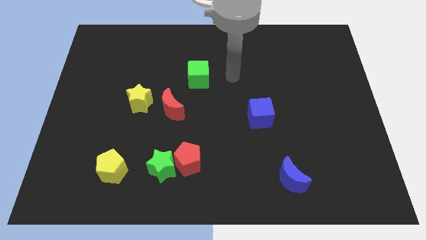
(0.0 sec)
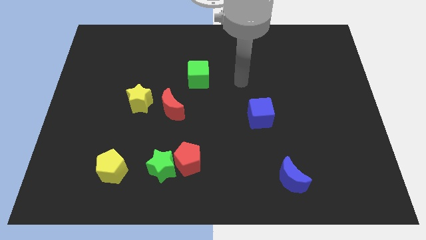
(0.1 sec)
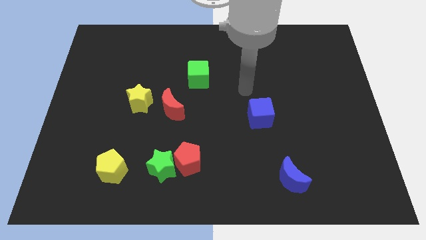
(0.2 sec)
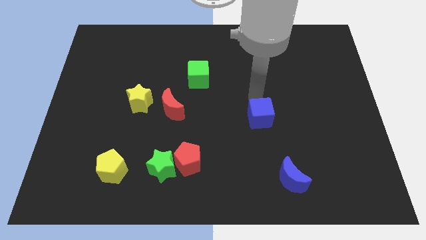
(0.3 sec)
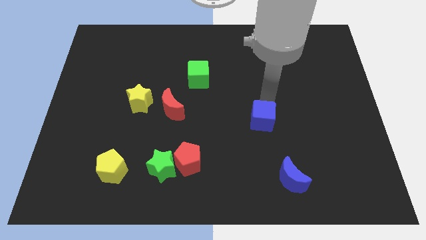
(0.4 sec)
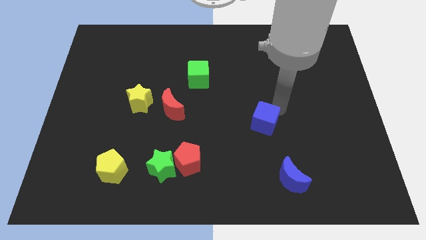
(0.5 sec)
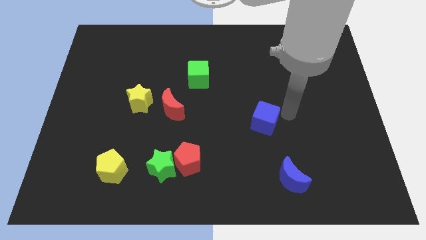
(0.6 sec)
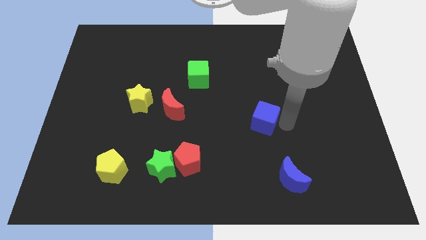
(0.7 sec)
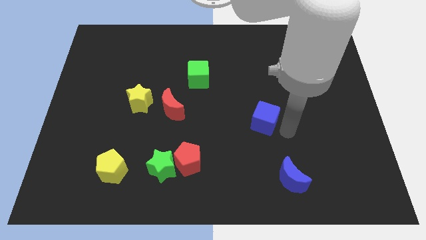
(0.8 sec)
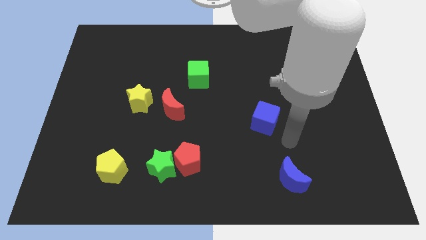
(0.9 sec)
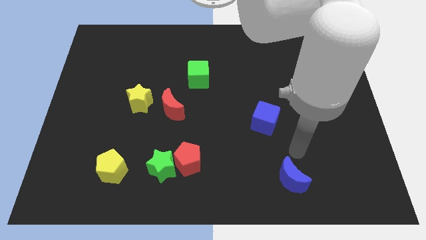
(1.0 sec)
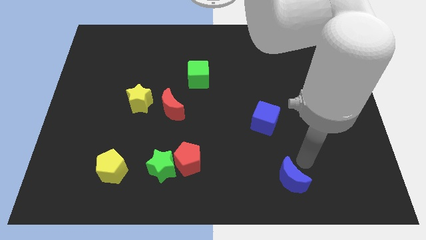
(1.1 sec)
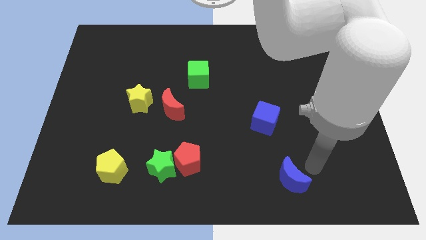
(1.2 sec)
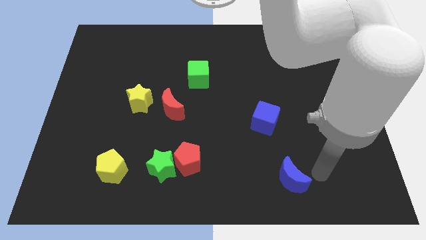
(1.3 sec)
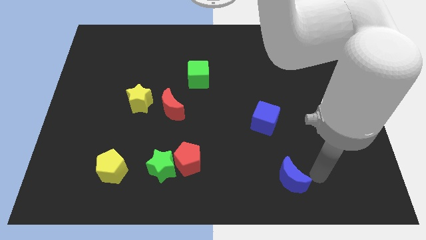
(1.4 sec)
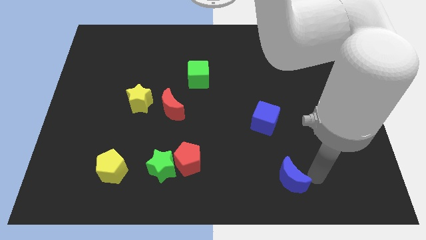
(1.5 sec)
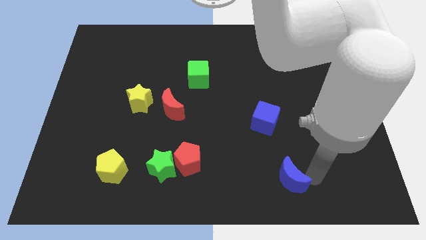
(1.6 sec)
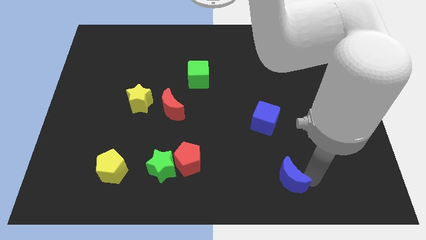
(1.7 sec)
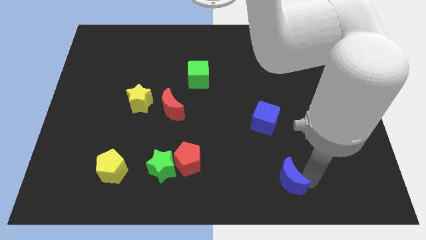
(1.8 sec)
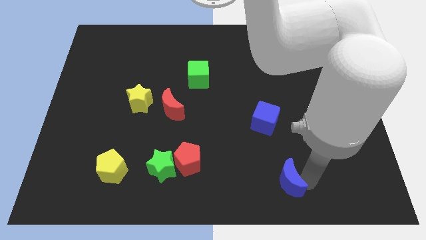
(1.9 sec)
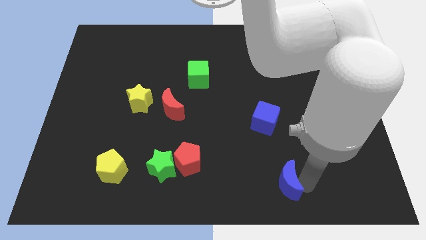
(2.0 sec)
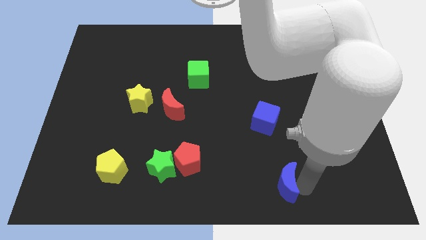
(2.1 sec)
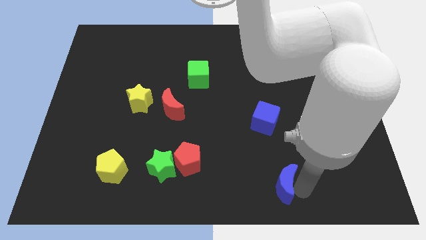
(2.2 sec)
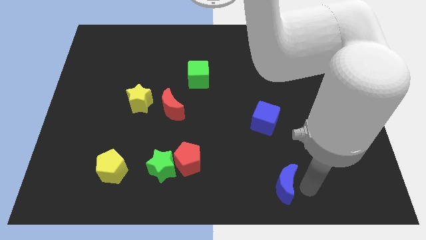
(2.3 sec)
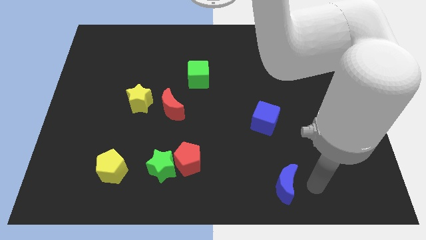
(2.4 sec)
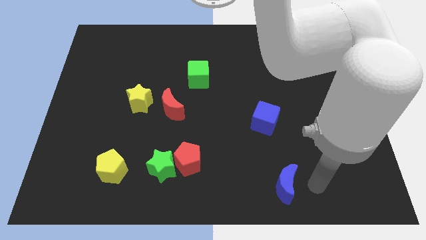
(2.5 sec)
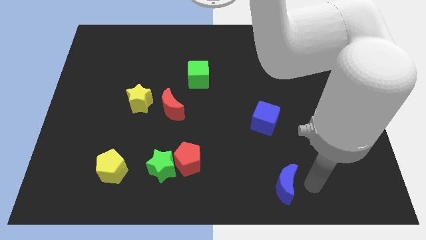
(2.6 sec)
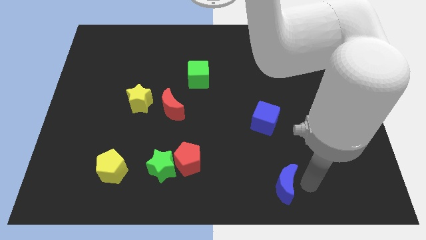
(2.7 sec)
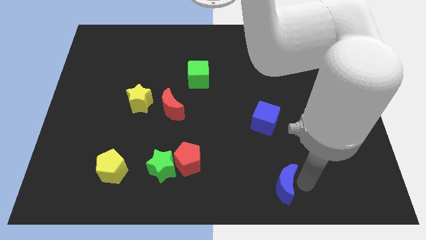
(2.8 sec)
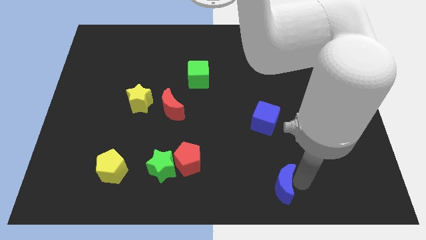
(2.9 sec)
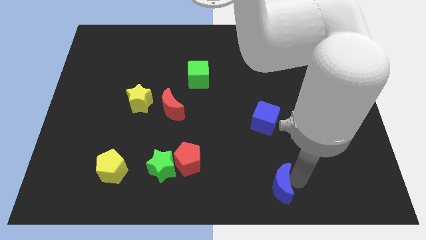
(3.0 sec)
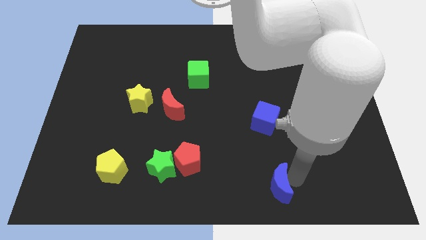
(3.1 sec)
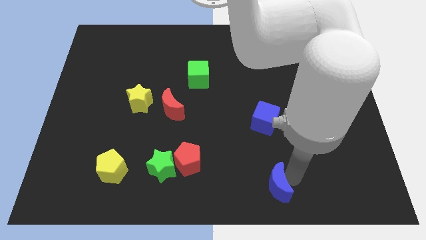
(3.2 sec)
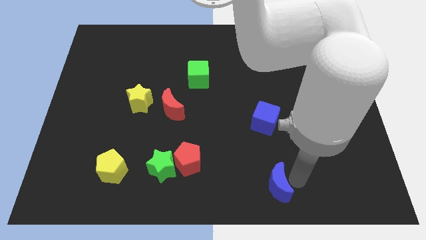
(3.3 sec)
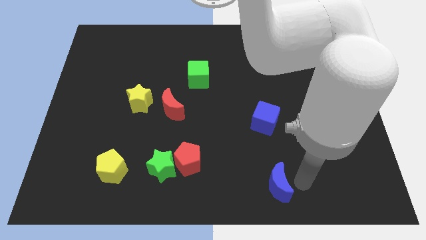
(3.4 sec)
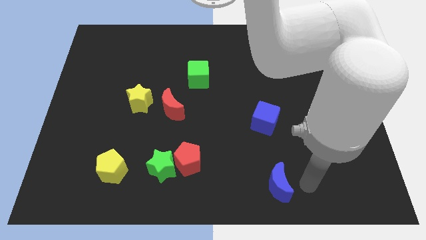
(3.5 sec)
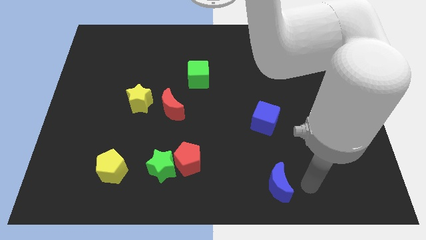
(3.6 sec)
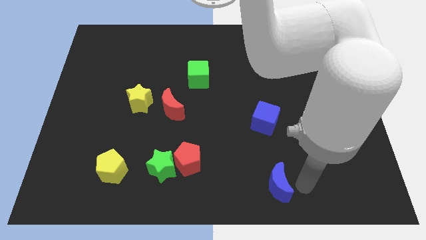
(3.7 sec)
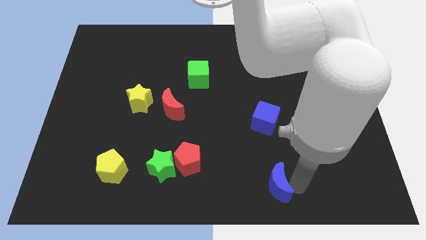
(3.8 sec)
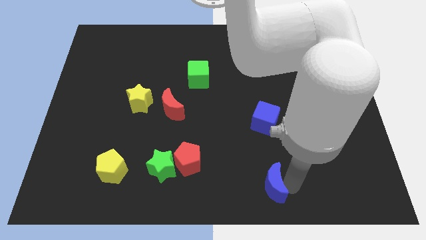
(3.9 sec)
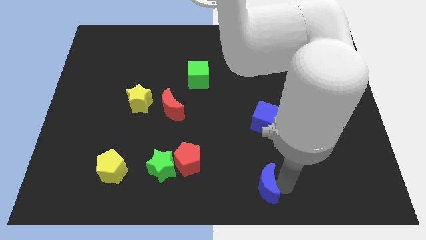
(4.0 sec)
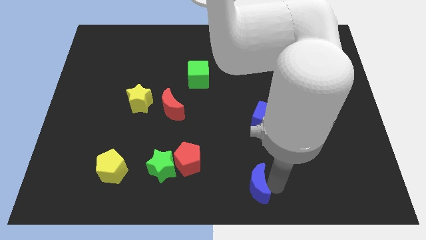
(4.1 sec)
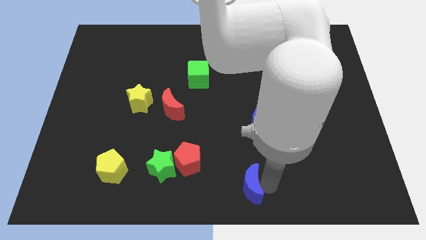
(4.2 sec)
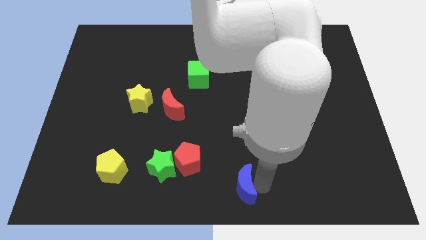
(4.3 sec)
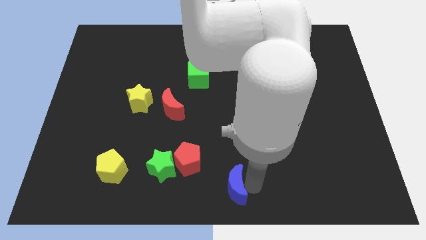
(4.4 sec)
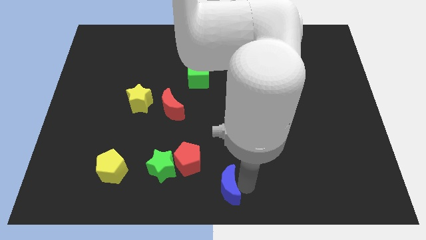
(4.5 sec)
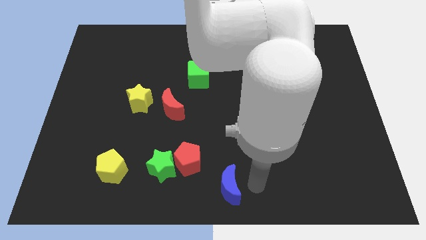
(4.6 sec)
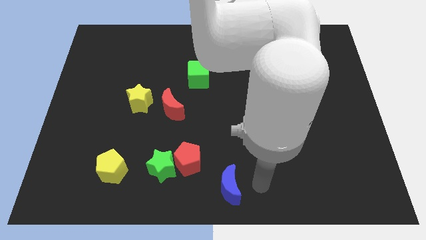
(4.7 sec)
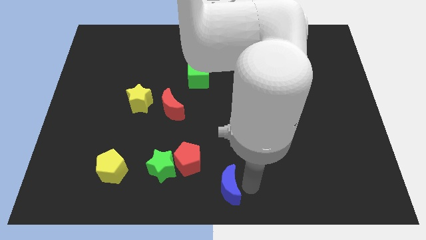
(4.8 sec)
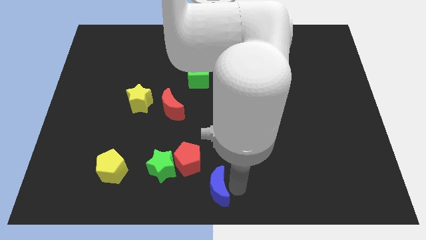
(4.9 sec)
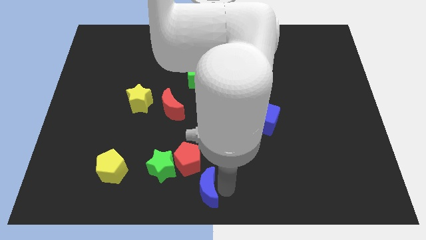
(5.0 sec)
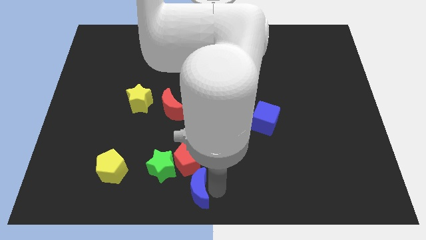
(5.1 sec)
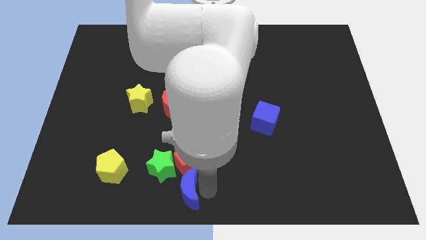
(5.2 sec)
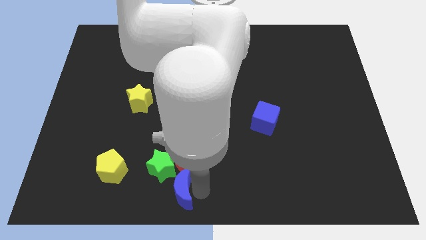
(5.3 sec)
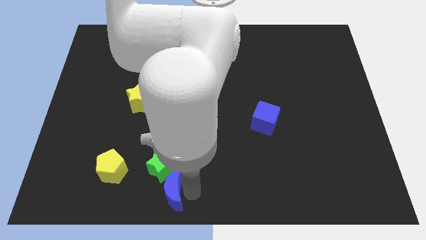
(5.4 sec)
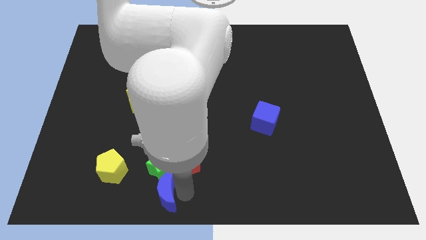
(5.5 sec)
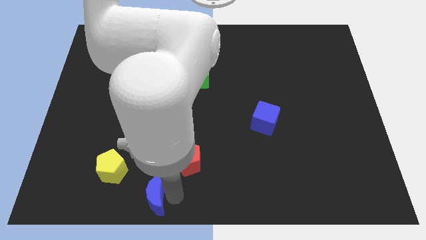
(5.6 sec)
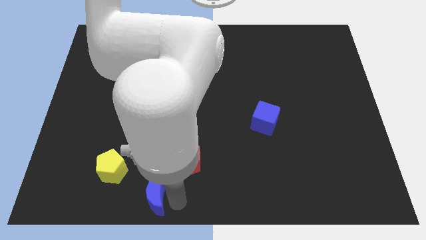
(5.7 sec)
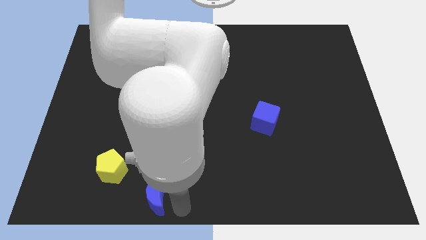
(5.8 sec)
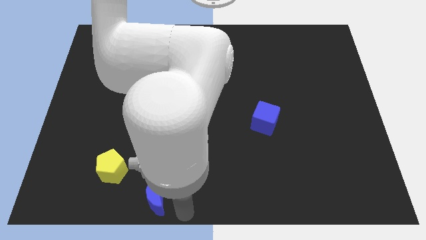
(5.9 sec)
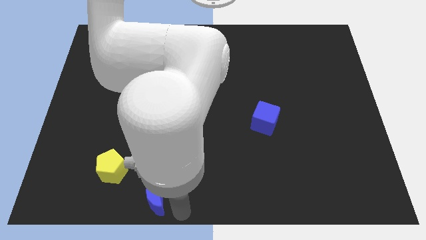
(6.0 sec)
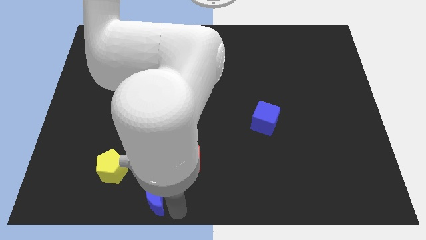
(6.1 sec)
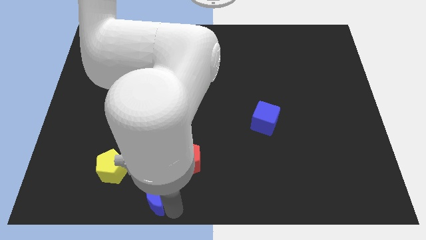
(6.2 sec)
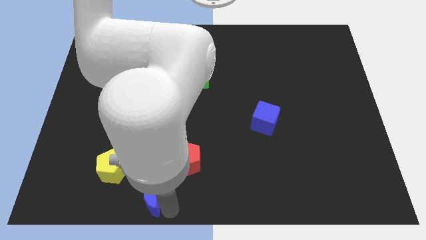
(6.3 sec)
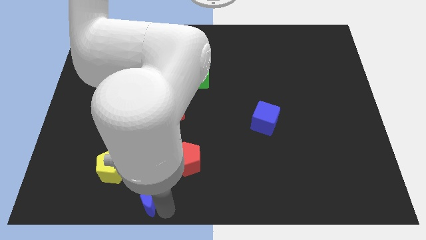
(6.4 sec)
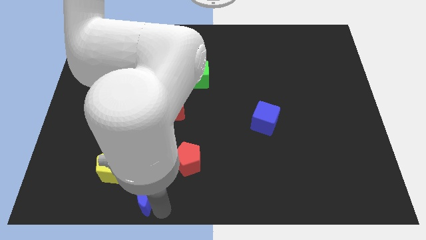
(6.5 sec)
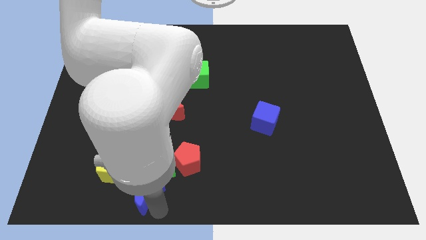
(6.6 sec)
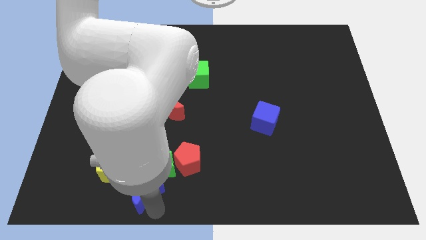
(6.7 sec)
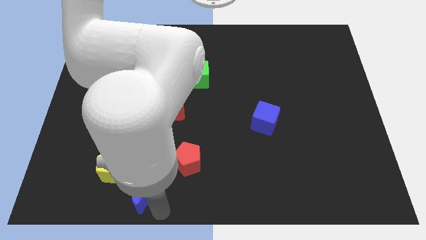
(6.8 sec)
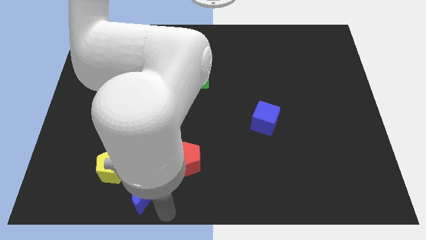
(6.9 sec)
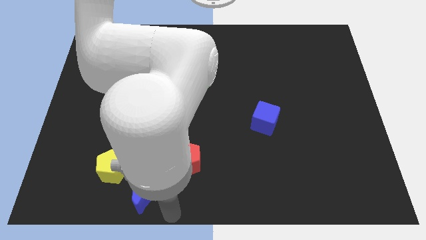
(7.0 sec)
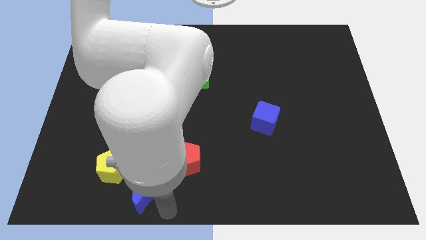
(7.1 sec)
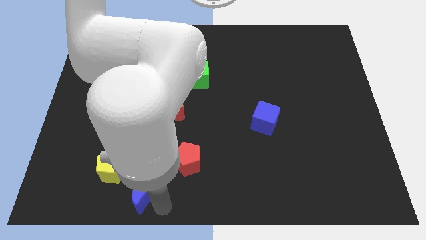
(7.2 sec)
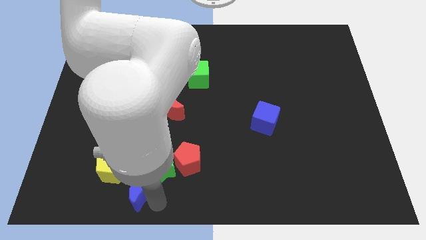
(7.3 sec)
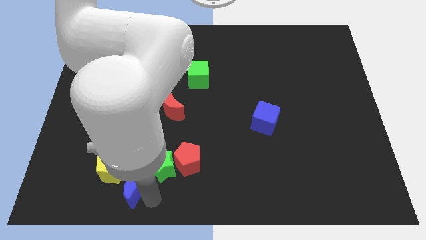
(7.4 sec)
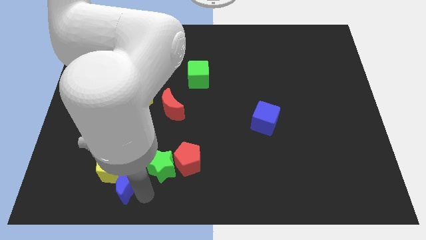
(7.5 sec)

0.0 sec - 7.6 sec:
put the blue moon towards the yellow pentagon

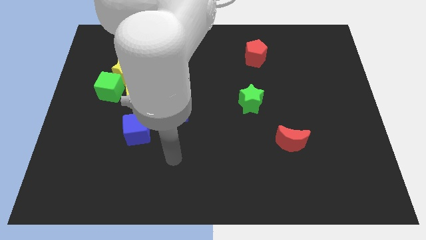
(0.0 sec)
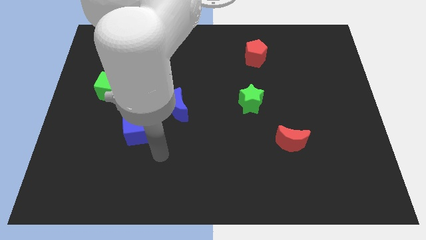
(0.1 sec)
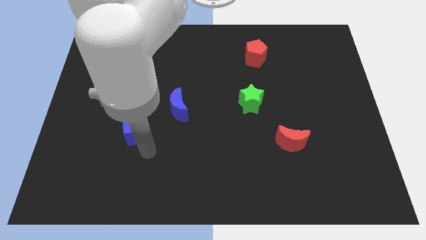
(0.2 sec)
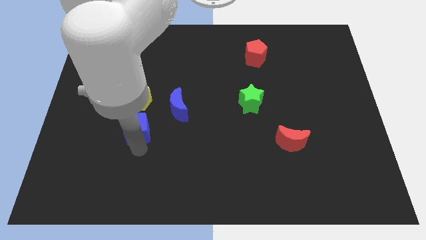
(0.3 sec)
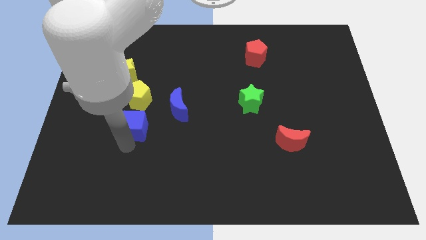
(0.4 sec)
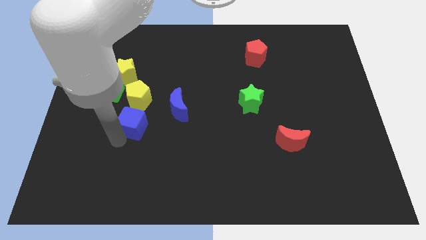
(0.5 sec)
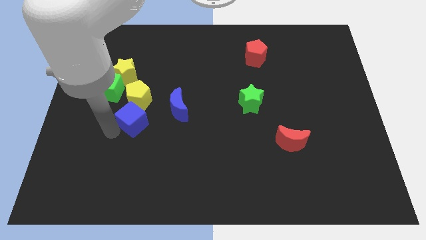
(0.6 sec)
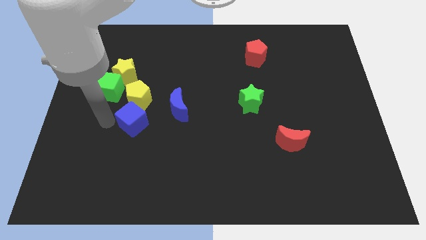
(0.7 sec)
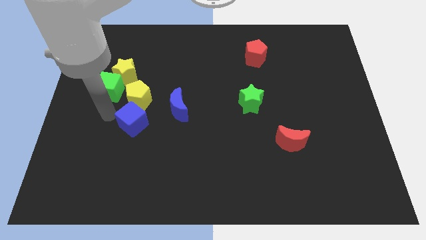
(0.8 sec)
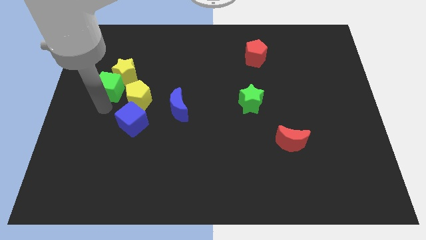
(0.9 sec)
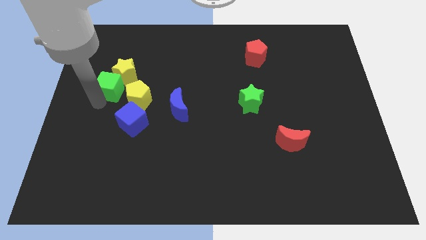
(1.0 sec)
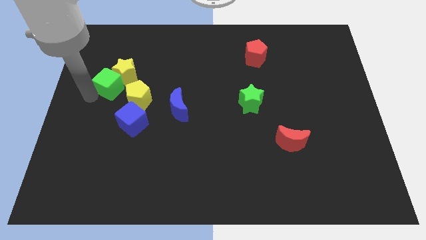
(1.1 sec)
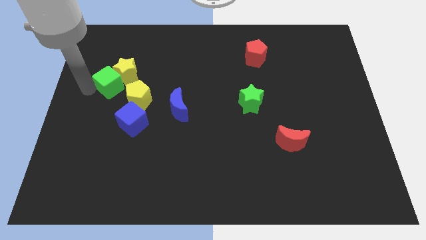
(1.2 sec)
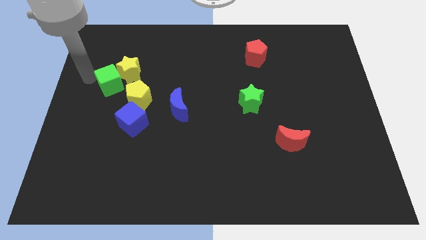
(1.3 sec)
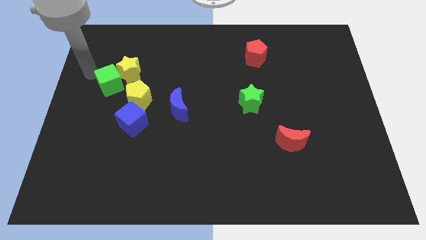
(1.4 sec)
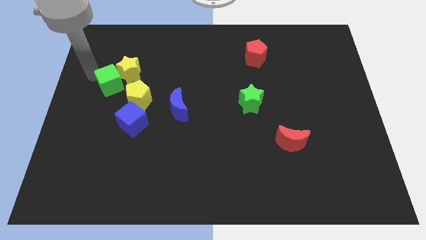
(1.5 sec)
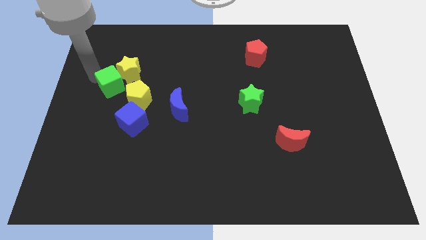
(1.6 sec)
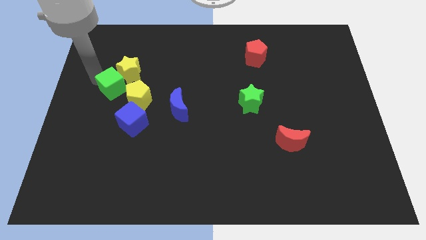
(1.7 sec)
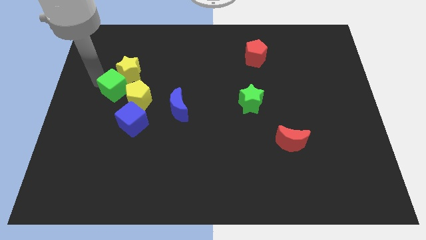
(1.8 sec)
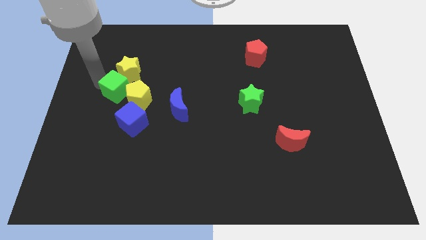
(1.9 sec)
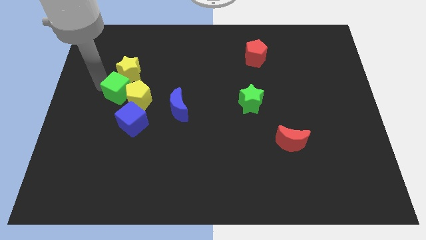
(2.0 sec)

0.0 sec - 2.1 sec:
put the green cube next to the yellow pentagon
